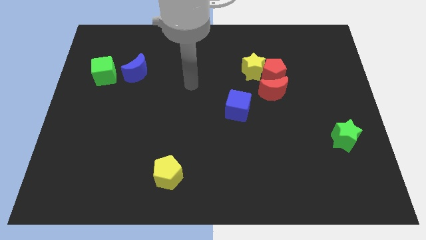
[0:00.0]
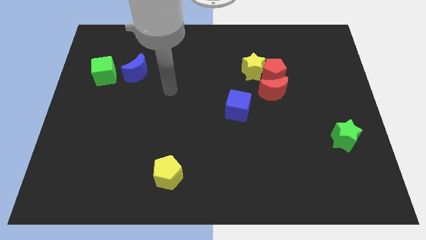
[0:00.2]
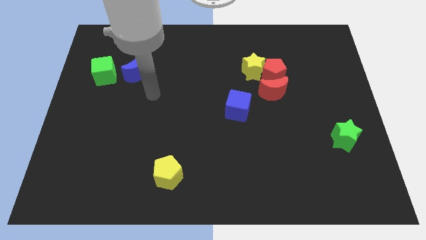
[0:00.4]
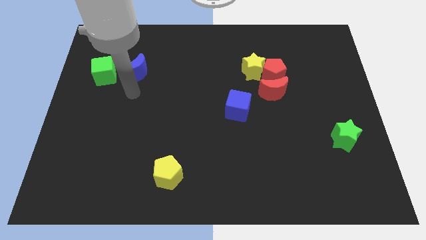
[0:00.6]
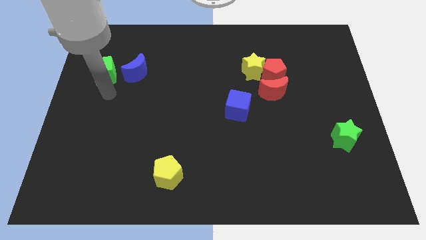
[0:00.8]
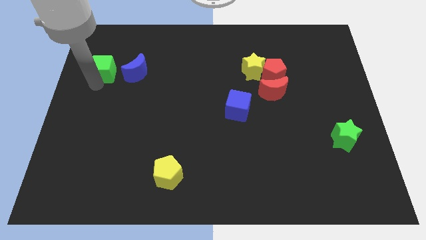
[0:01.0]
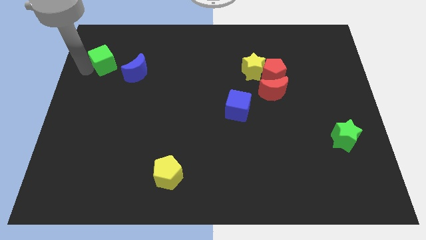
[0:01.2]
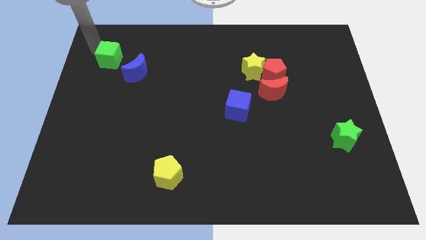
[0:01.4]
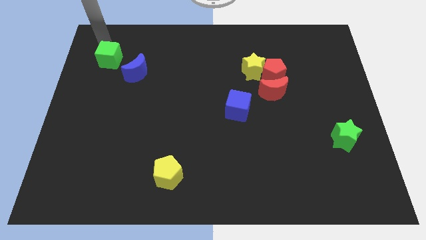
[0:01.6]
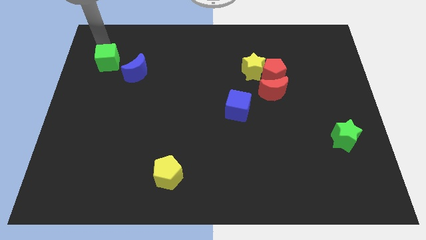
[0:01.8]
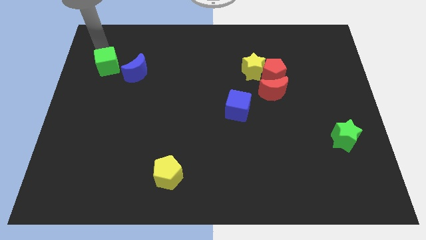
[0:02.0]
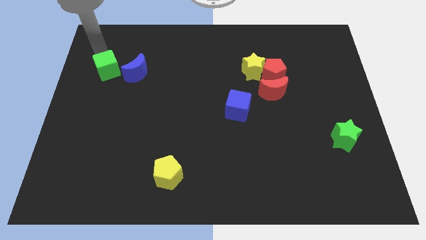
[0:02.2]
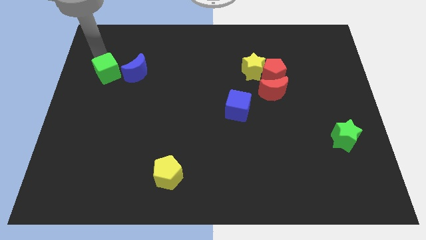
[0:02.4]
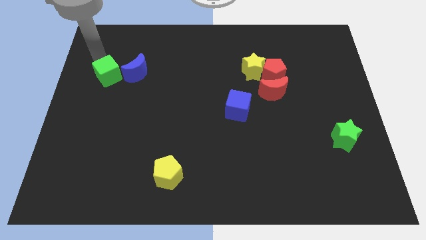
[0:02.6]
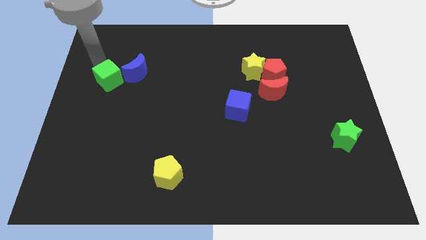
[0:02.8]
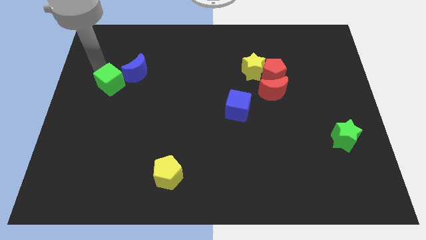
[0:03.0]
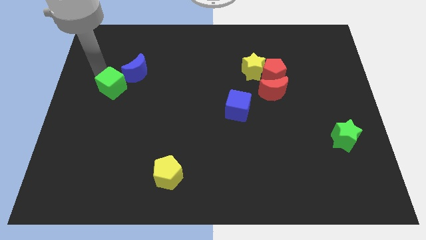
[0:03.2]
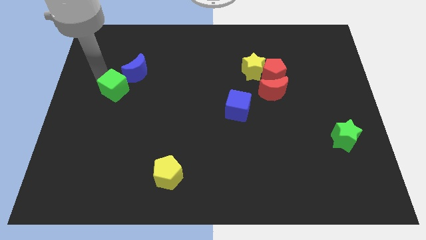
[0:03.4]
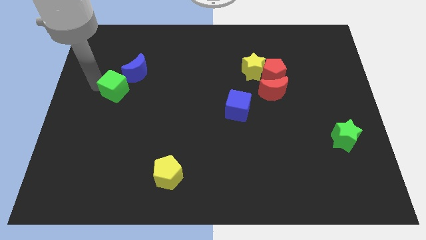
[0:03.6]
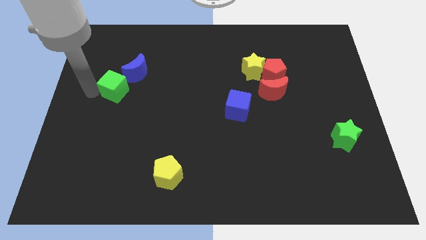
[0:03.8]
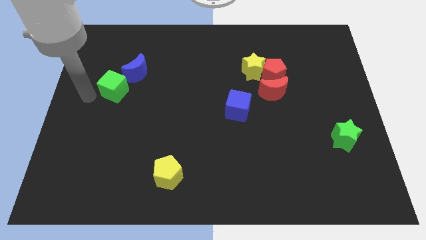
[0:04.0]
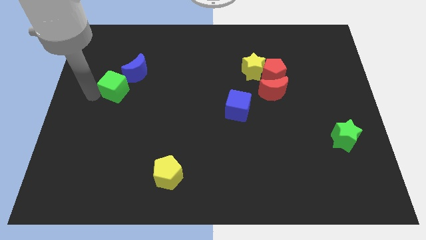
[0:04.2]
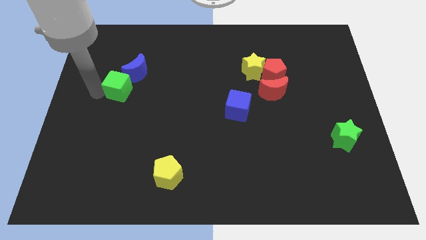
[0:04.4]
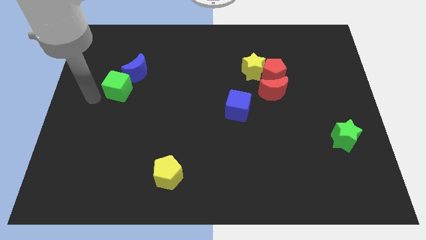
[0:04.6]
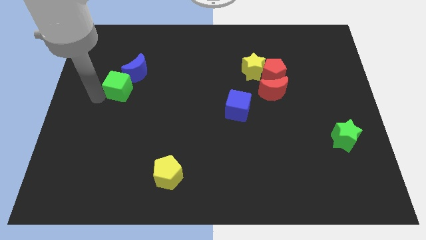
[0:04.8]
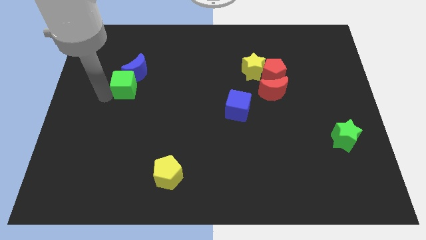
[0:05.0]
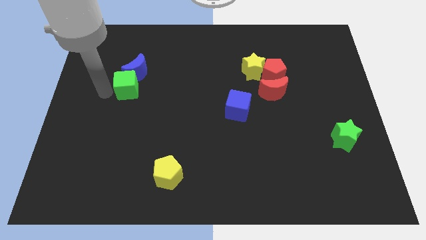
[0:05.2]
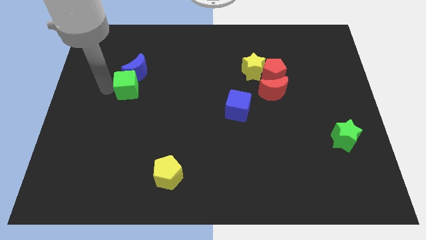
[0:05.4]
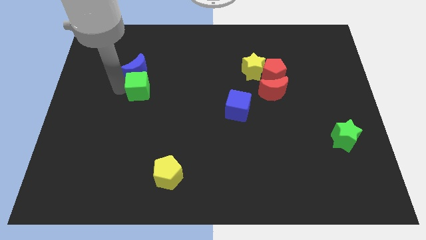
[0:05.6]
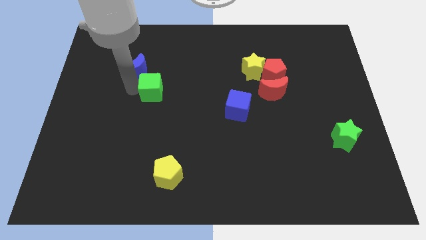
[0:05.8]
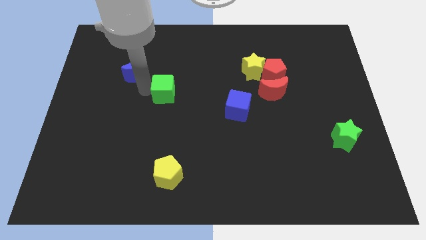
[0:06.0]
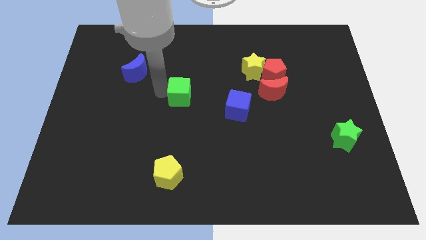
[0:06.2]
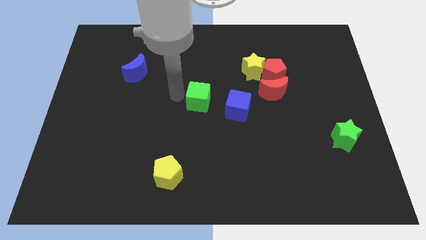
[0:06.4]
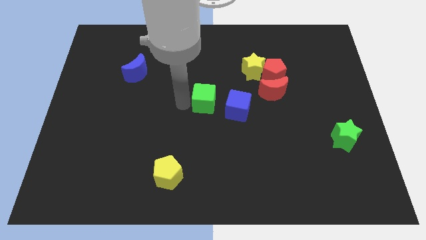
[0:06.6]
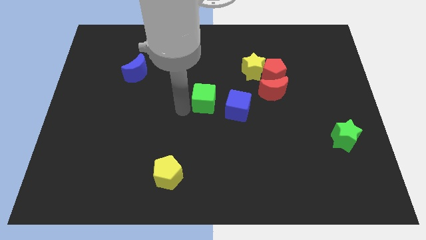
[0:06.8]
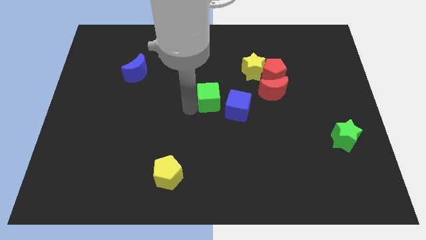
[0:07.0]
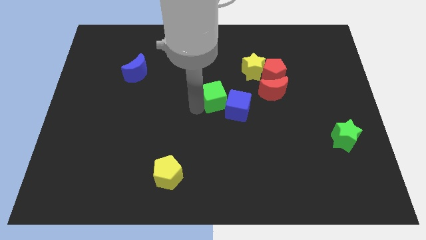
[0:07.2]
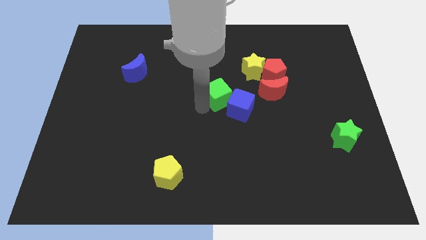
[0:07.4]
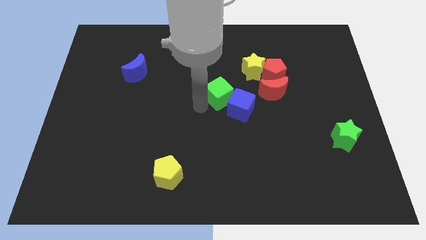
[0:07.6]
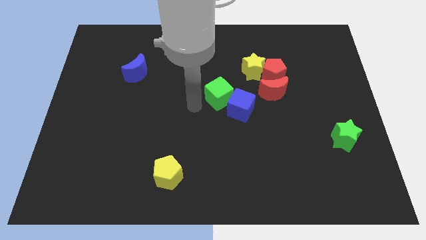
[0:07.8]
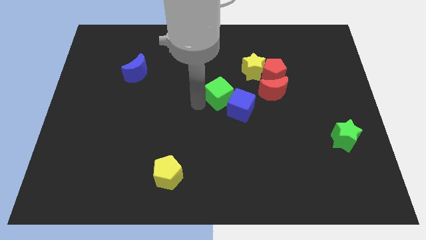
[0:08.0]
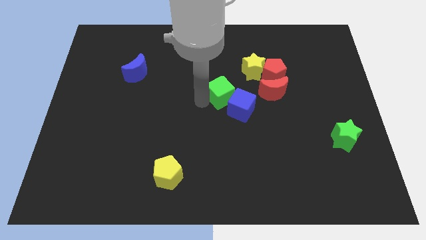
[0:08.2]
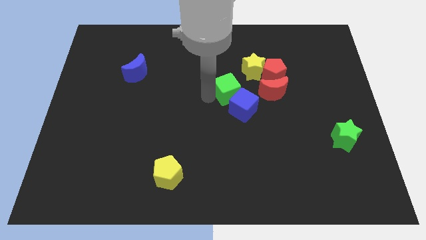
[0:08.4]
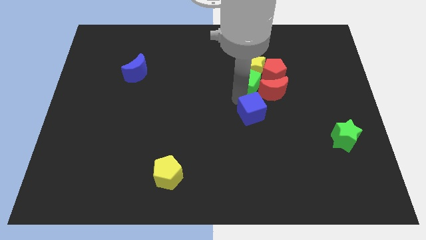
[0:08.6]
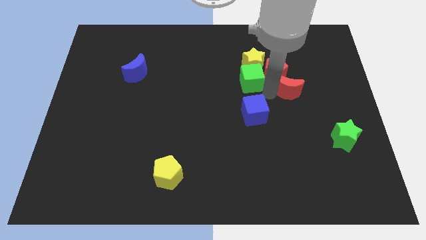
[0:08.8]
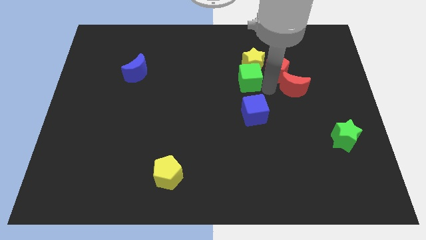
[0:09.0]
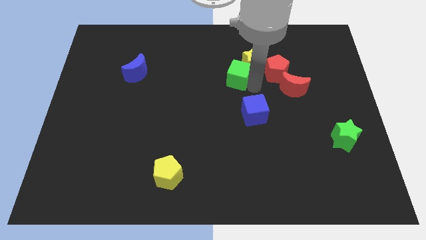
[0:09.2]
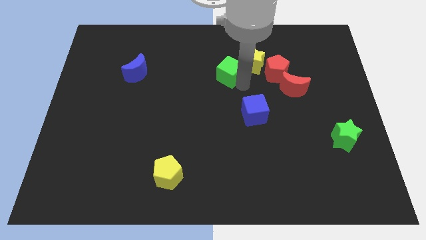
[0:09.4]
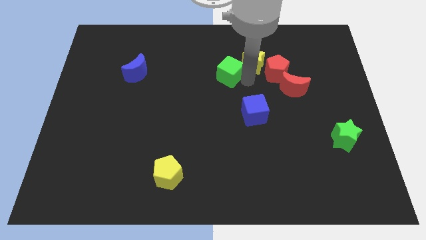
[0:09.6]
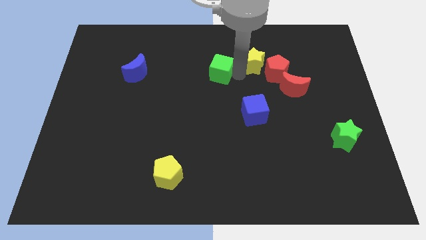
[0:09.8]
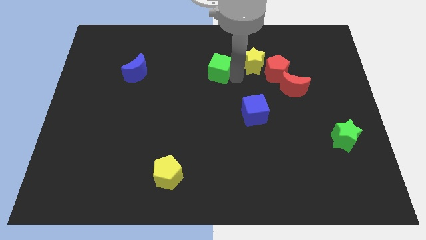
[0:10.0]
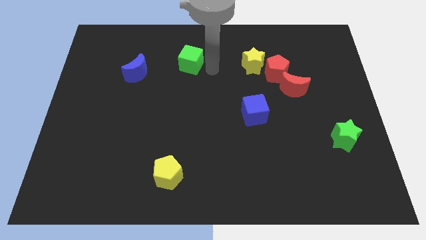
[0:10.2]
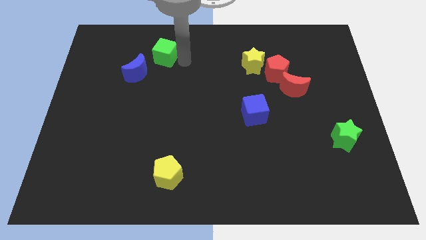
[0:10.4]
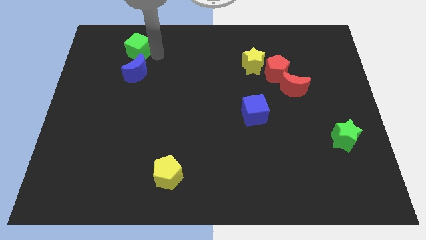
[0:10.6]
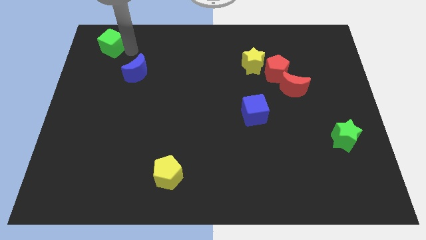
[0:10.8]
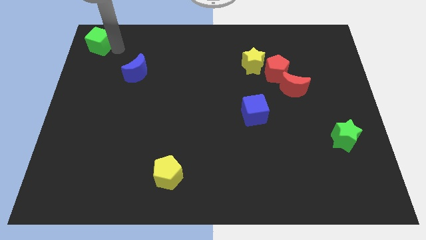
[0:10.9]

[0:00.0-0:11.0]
put the green cube to the top left

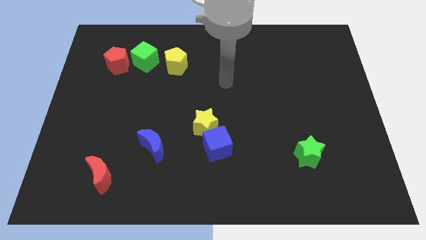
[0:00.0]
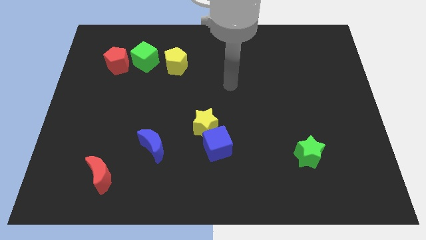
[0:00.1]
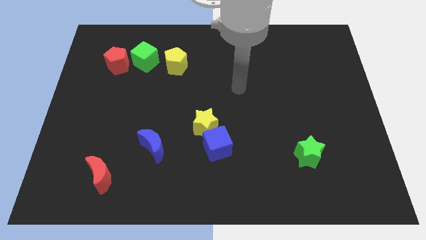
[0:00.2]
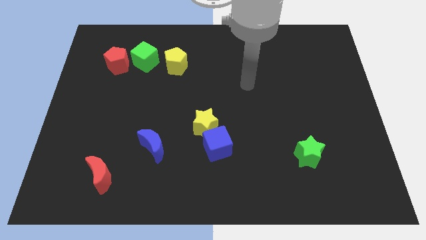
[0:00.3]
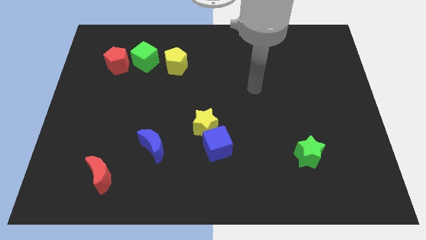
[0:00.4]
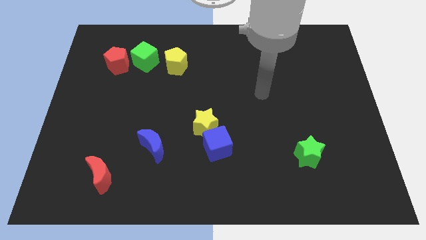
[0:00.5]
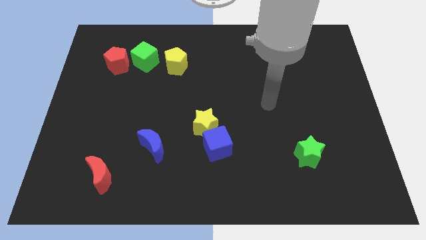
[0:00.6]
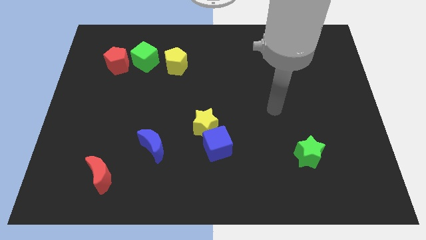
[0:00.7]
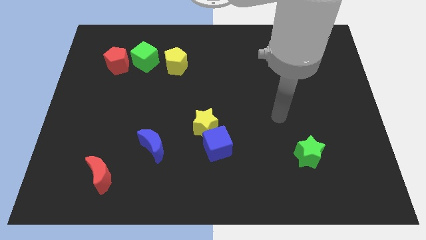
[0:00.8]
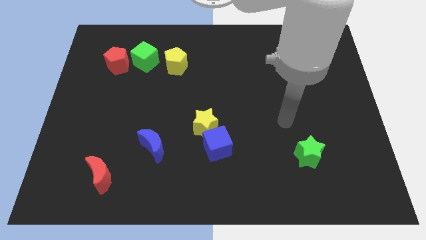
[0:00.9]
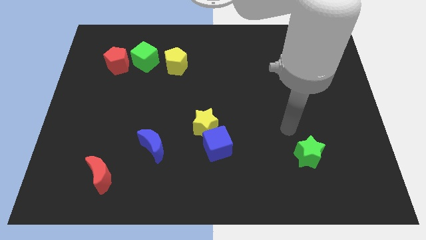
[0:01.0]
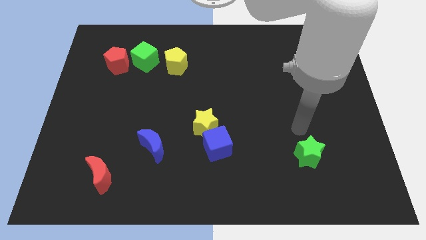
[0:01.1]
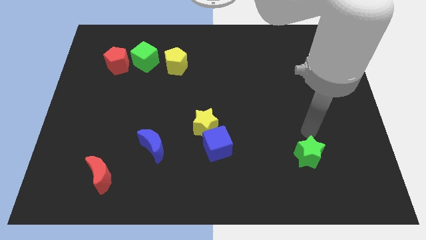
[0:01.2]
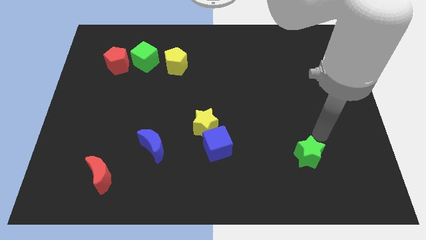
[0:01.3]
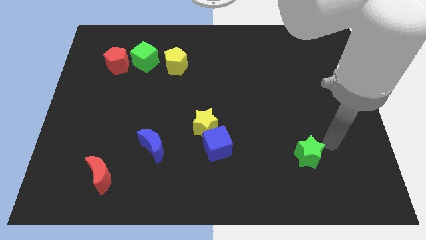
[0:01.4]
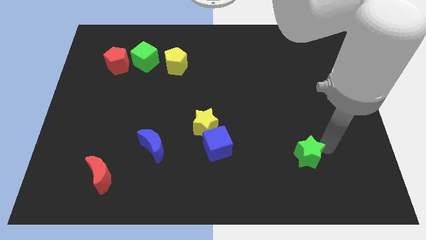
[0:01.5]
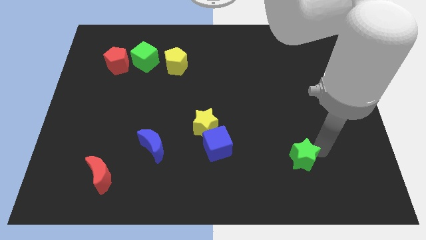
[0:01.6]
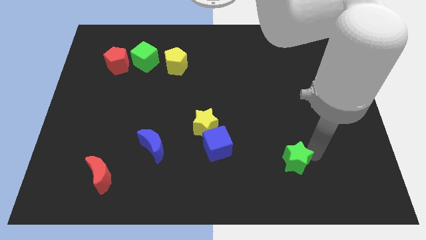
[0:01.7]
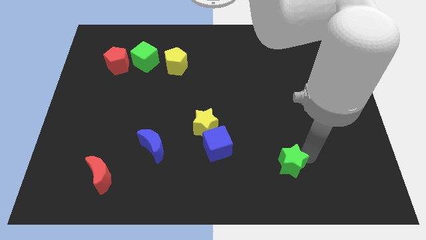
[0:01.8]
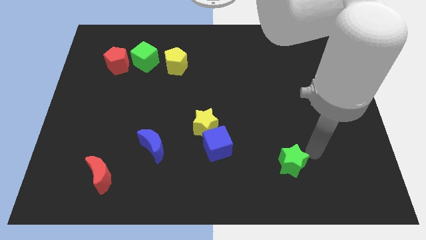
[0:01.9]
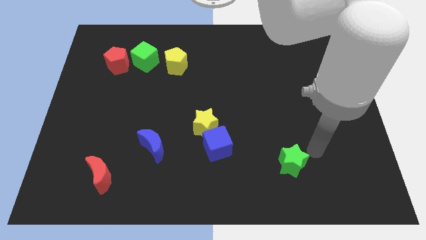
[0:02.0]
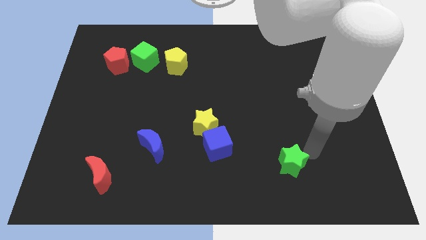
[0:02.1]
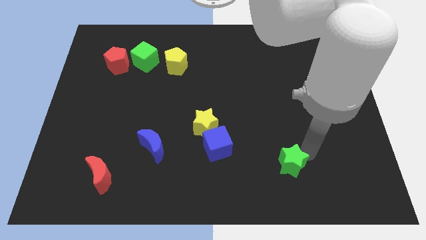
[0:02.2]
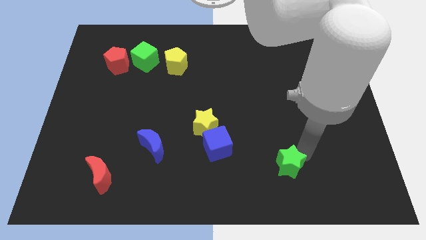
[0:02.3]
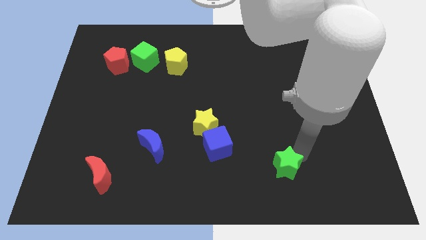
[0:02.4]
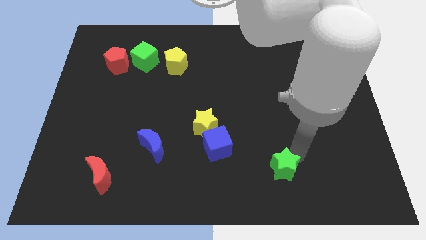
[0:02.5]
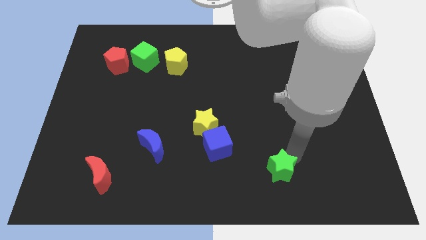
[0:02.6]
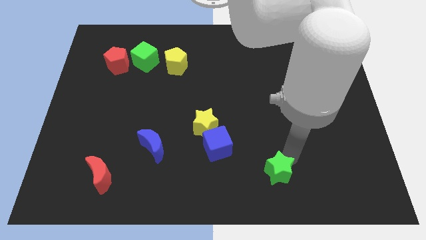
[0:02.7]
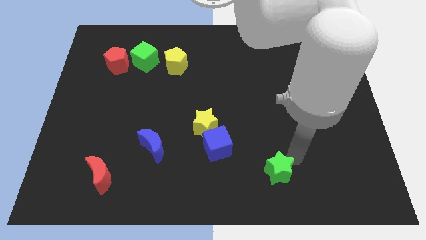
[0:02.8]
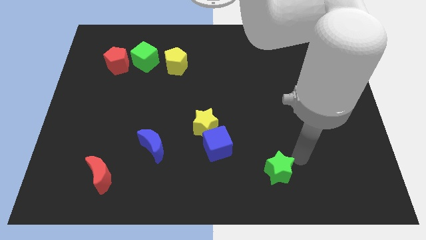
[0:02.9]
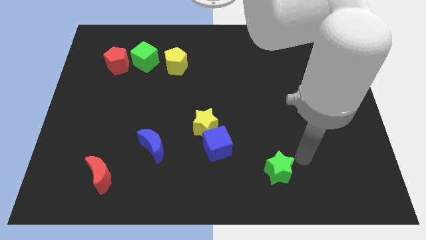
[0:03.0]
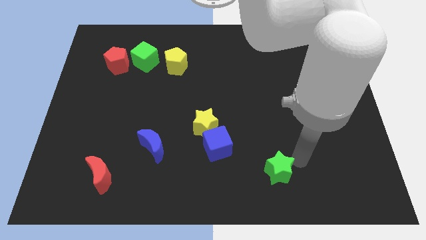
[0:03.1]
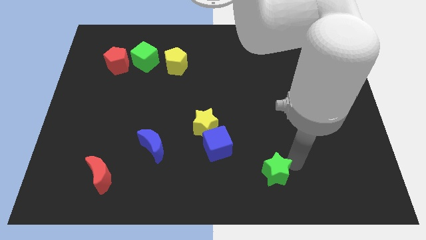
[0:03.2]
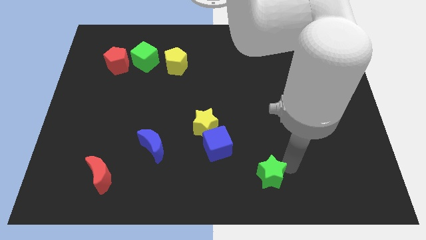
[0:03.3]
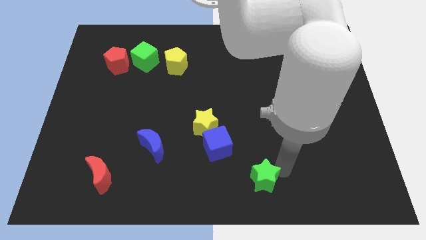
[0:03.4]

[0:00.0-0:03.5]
put the green star to the bottom side
